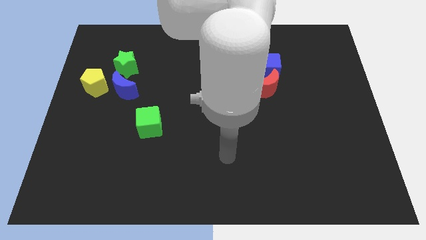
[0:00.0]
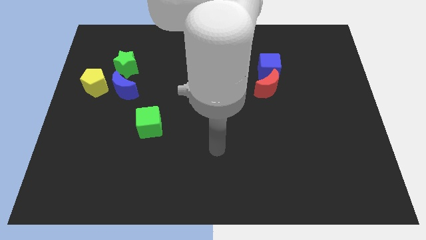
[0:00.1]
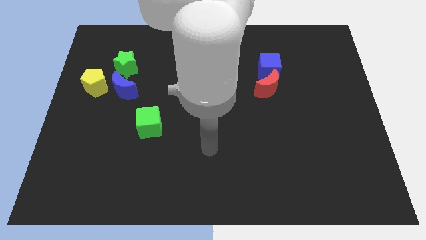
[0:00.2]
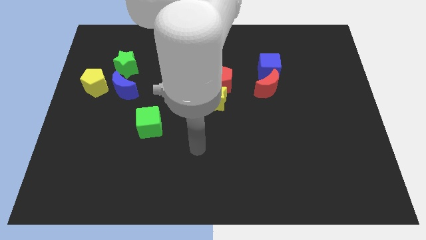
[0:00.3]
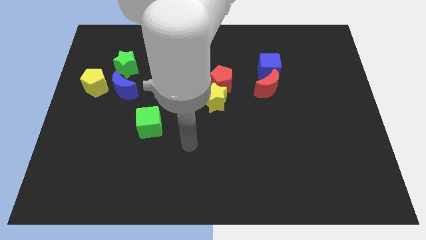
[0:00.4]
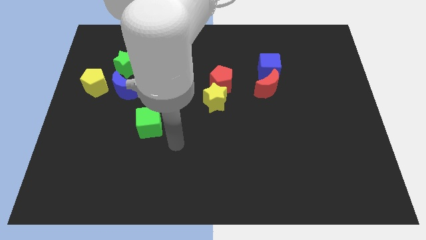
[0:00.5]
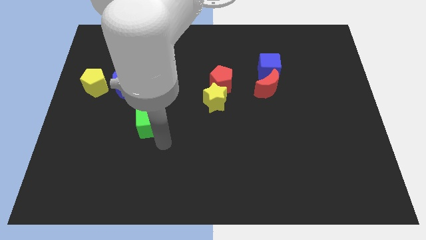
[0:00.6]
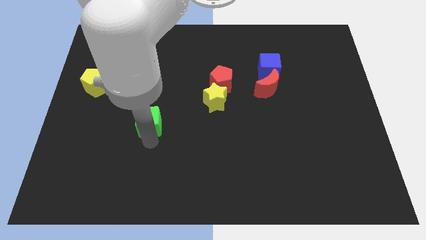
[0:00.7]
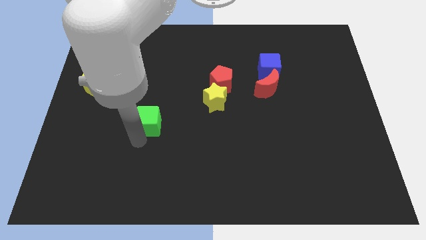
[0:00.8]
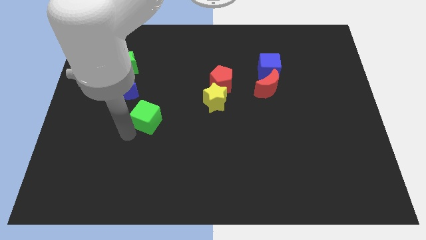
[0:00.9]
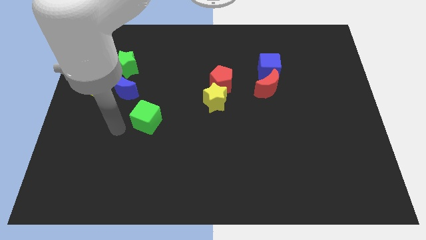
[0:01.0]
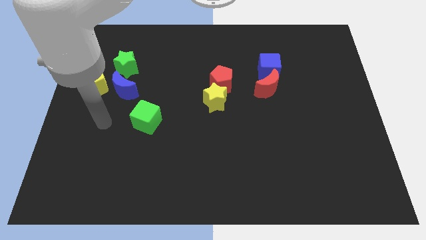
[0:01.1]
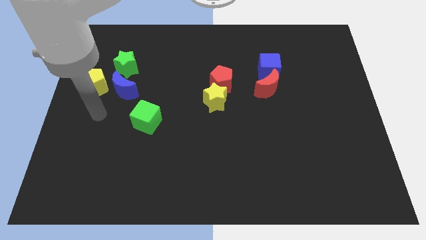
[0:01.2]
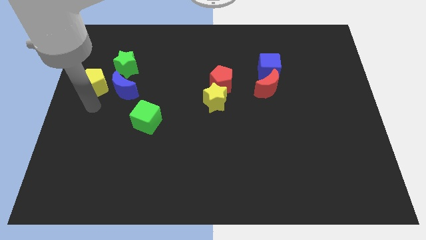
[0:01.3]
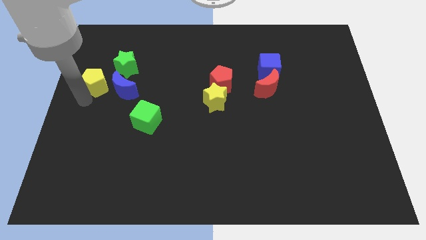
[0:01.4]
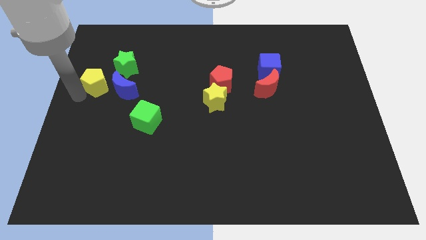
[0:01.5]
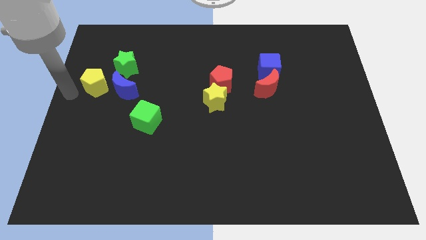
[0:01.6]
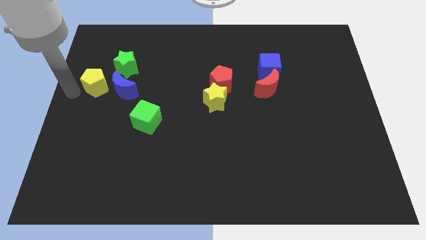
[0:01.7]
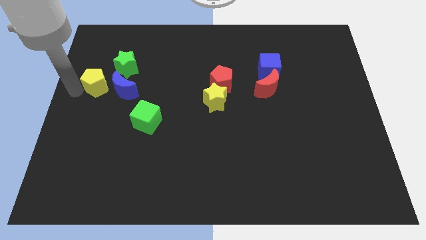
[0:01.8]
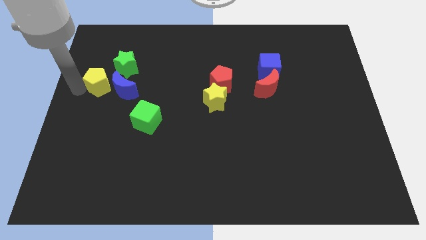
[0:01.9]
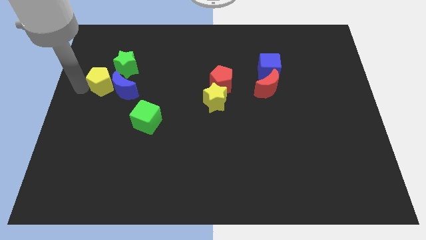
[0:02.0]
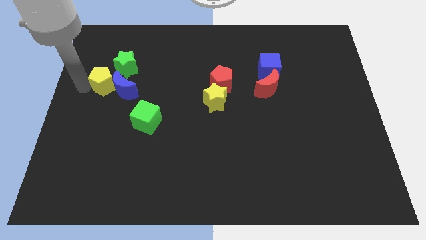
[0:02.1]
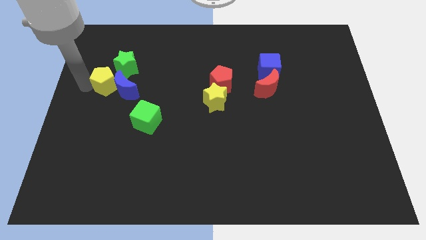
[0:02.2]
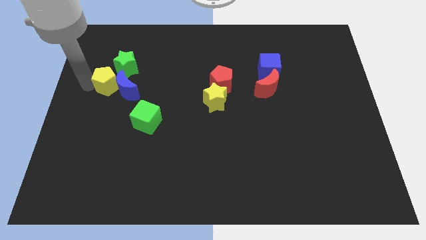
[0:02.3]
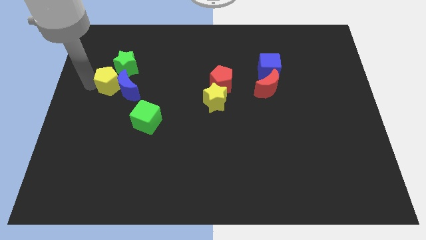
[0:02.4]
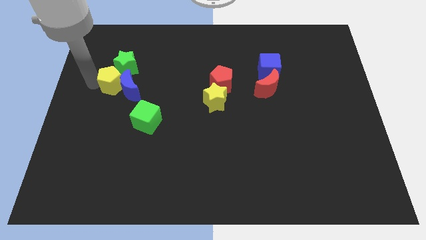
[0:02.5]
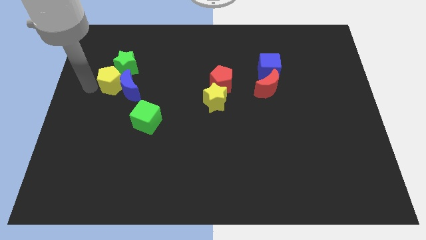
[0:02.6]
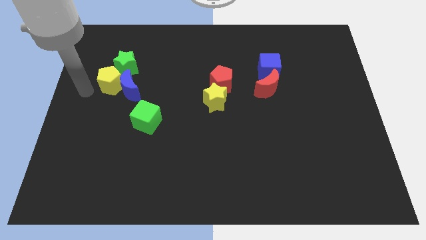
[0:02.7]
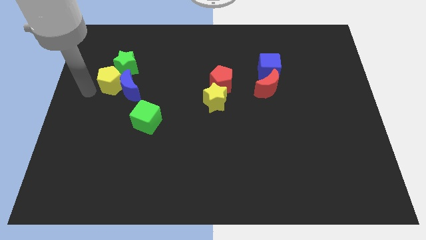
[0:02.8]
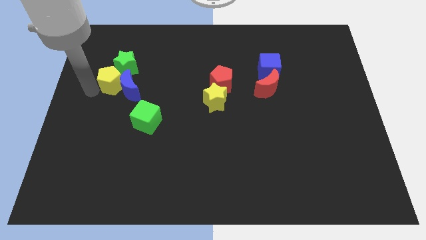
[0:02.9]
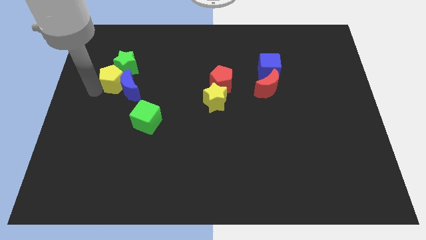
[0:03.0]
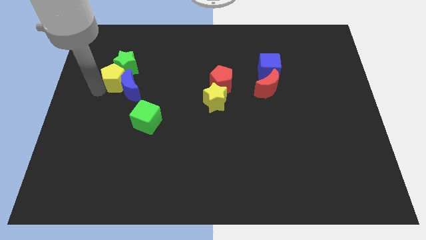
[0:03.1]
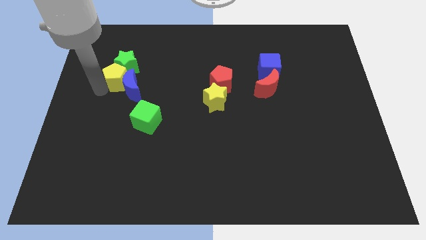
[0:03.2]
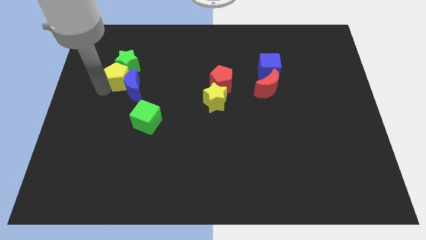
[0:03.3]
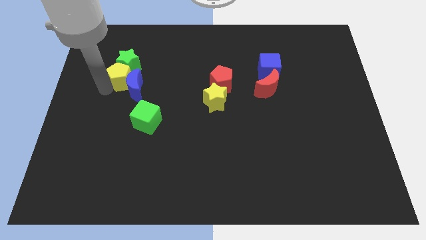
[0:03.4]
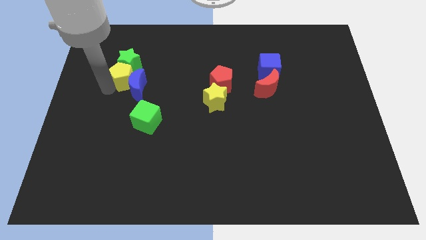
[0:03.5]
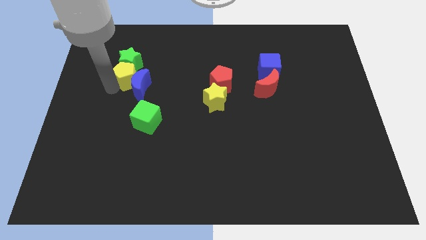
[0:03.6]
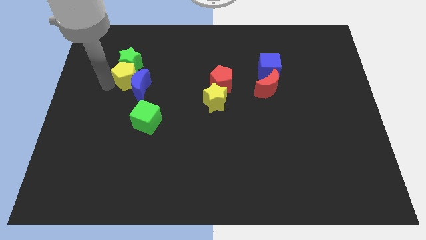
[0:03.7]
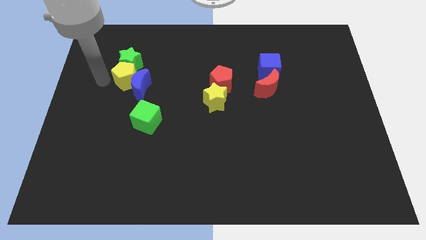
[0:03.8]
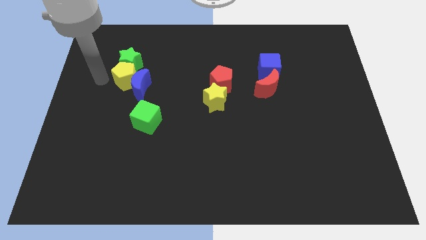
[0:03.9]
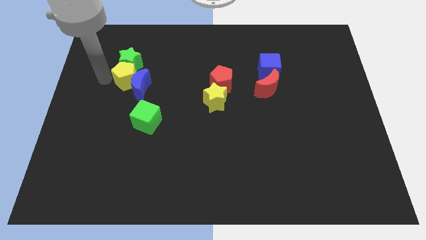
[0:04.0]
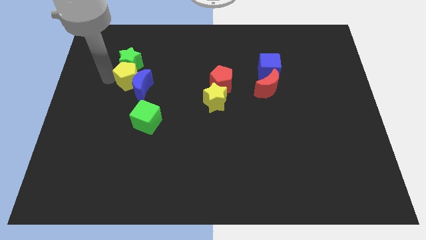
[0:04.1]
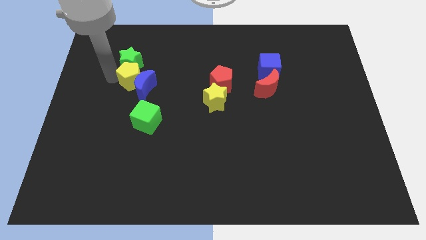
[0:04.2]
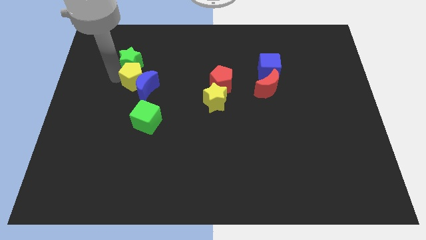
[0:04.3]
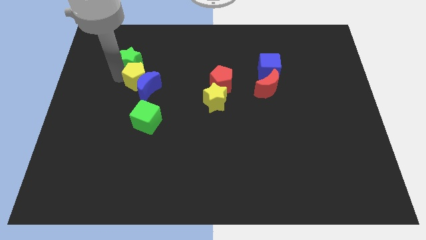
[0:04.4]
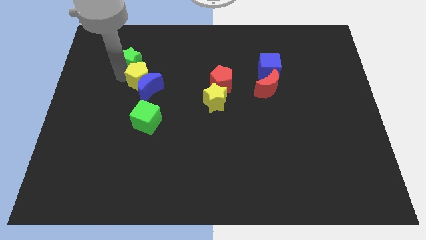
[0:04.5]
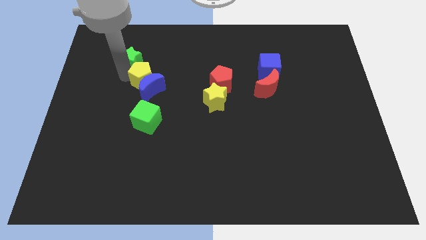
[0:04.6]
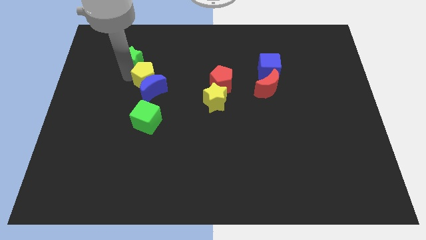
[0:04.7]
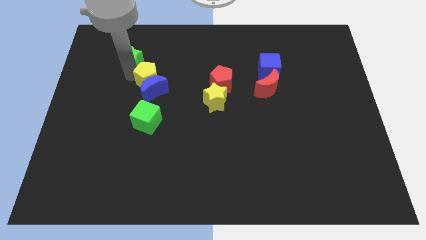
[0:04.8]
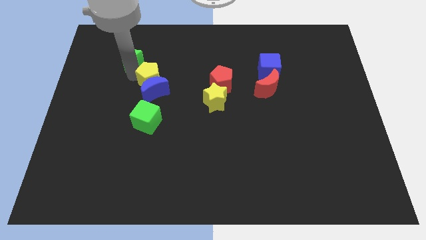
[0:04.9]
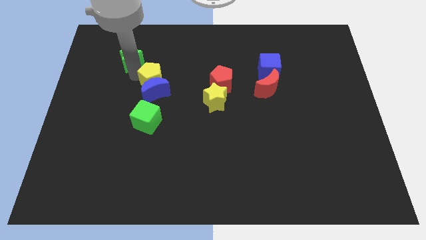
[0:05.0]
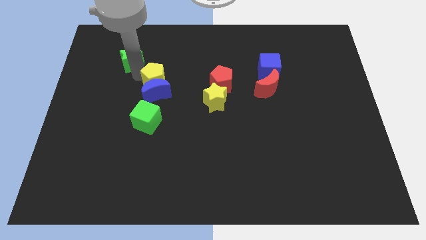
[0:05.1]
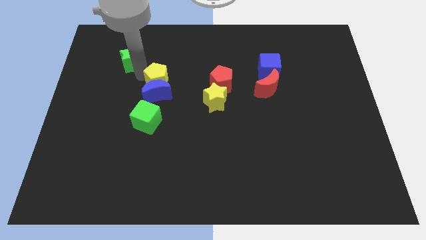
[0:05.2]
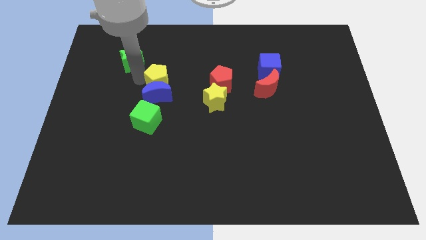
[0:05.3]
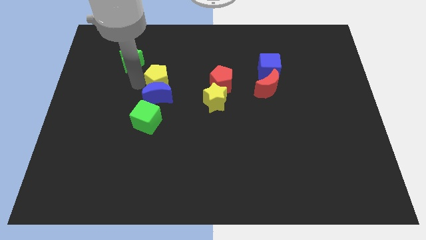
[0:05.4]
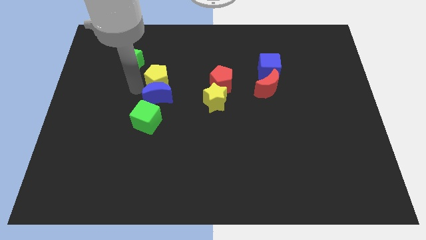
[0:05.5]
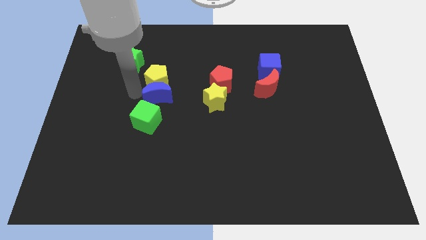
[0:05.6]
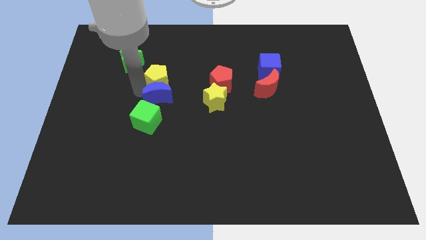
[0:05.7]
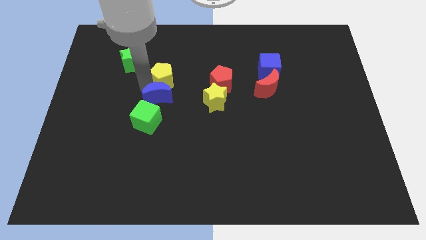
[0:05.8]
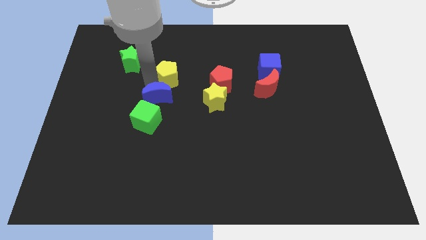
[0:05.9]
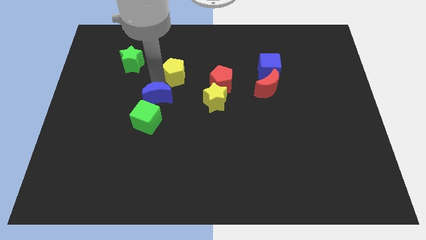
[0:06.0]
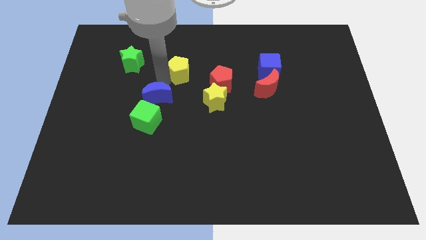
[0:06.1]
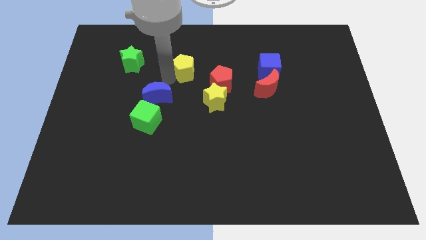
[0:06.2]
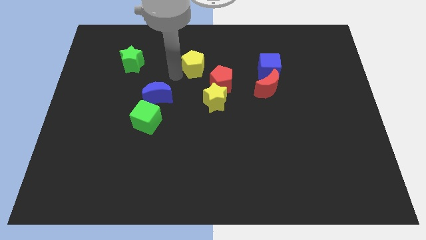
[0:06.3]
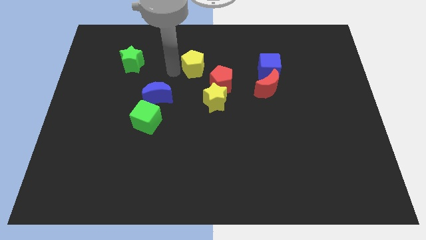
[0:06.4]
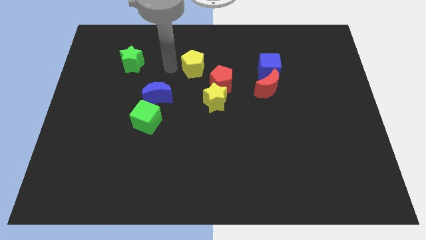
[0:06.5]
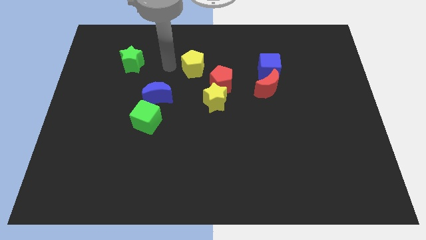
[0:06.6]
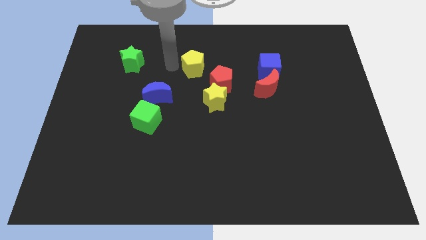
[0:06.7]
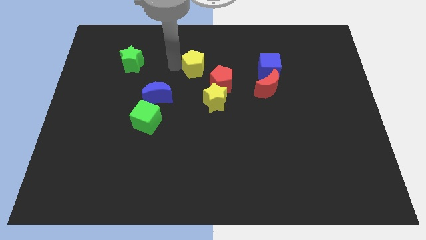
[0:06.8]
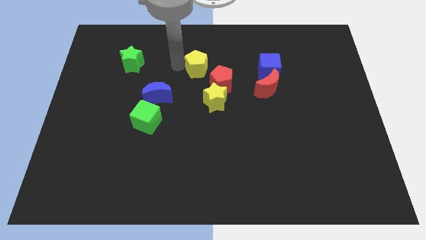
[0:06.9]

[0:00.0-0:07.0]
push the yellow pentagon above the yellow star

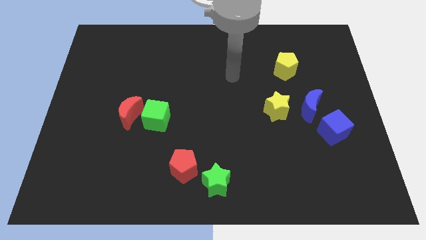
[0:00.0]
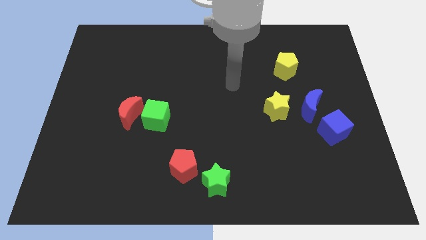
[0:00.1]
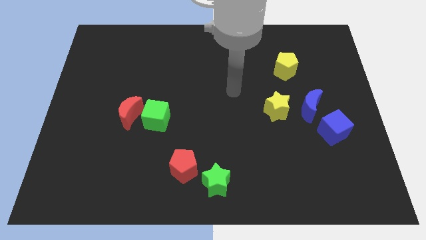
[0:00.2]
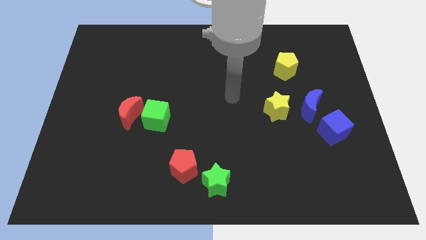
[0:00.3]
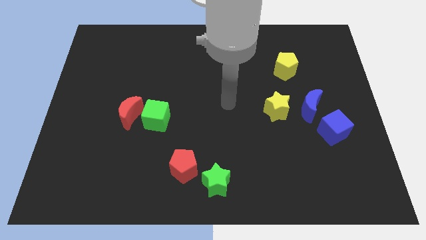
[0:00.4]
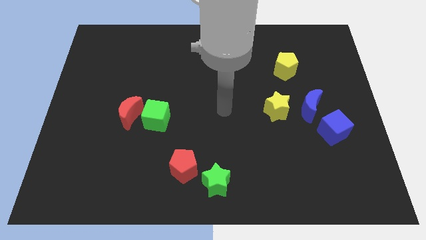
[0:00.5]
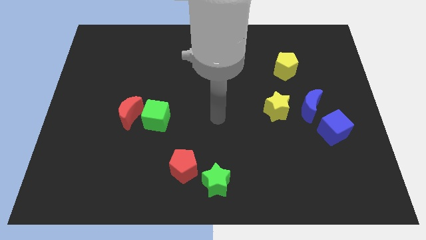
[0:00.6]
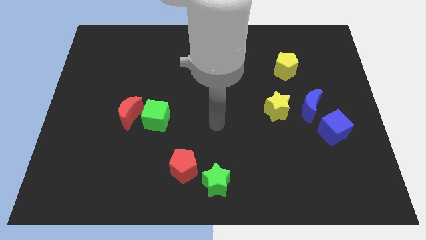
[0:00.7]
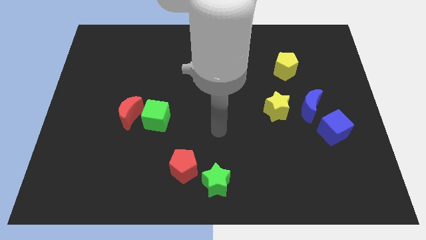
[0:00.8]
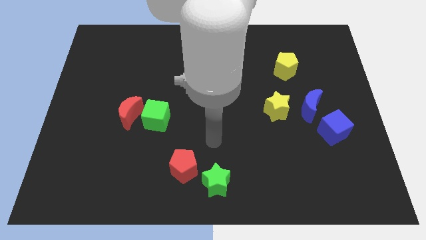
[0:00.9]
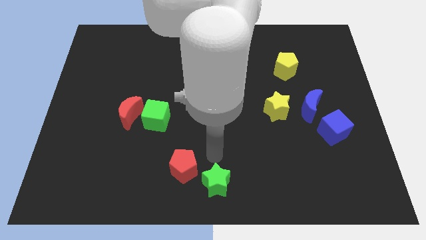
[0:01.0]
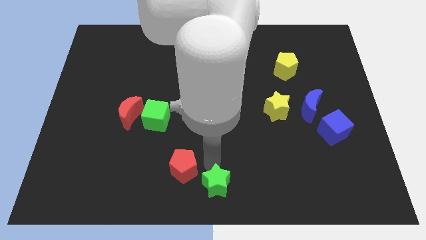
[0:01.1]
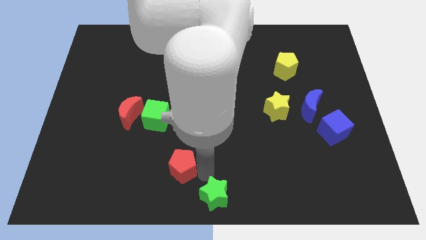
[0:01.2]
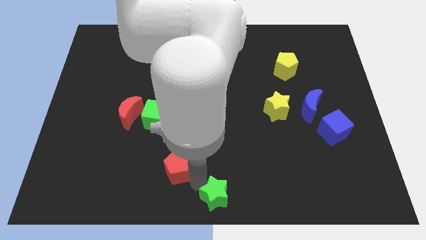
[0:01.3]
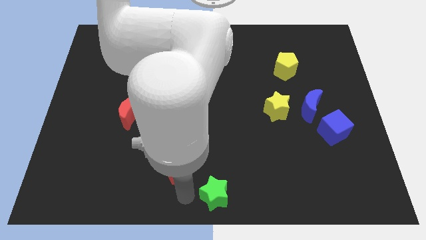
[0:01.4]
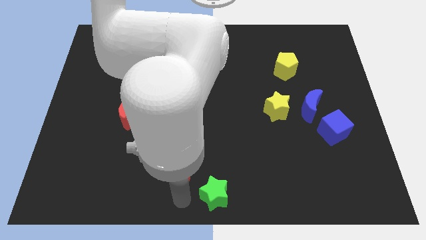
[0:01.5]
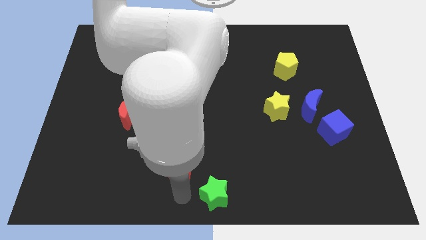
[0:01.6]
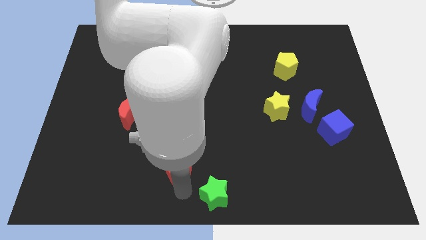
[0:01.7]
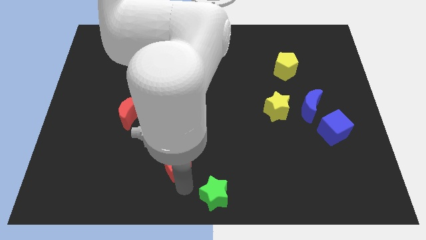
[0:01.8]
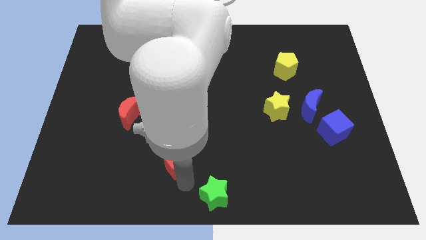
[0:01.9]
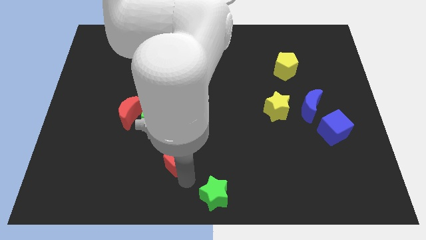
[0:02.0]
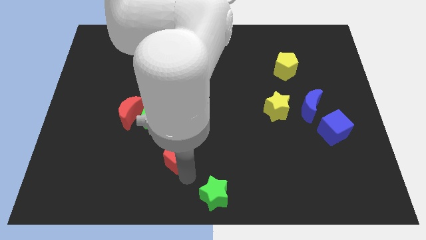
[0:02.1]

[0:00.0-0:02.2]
move the red pentagon diagonally down and to the right of the green cube
